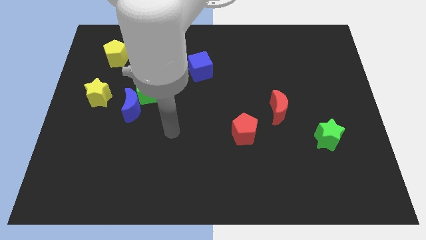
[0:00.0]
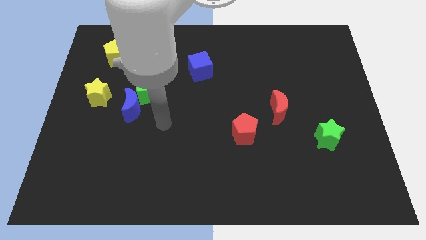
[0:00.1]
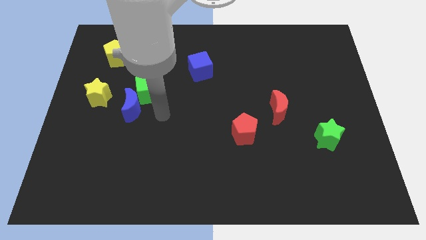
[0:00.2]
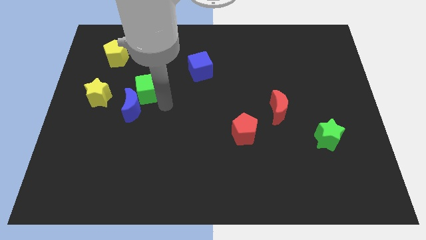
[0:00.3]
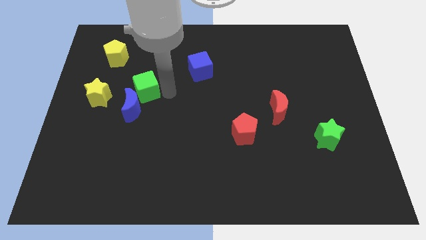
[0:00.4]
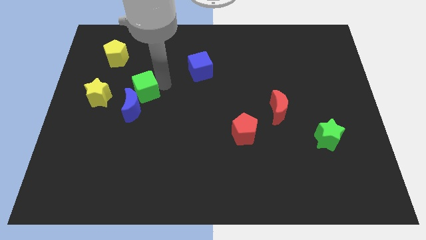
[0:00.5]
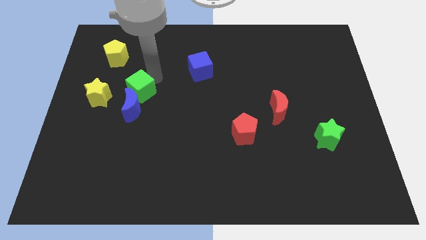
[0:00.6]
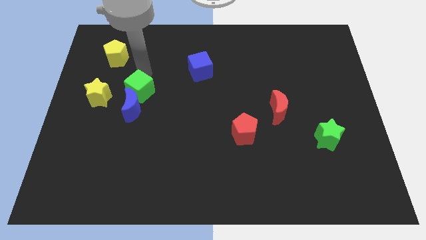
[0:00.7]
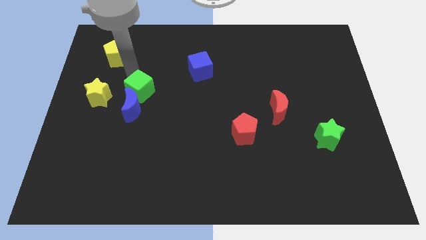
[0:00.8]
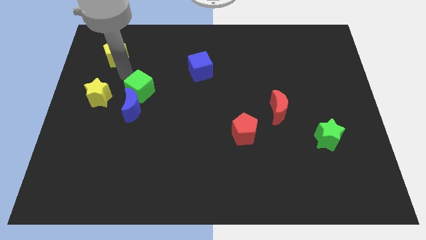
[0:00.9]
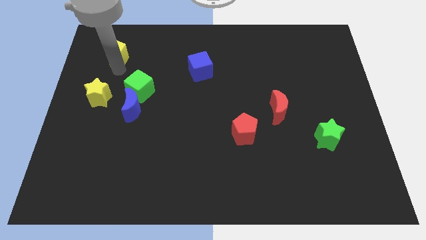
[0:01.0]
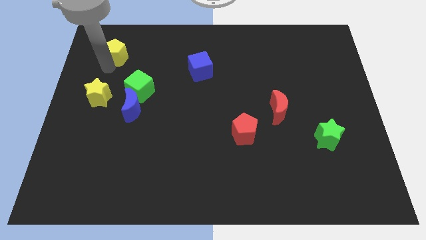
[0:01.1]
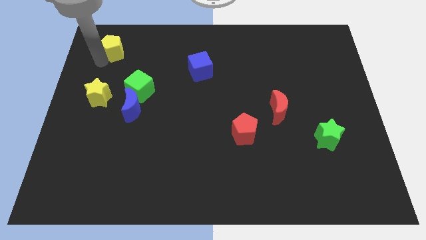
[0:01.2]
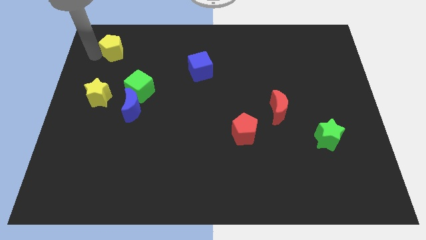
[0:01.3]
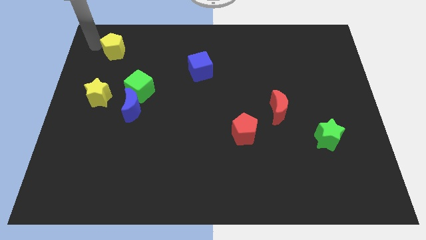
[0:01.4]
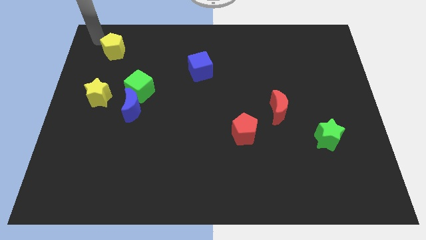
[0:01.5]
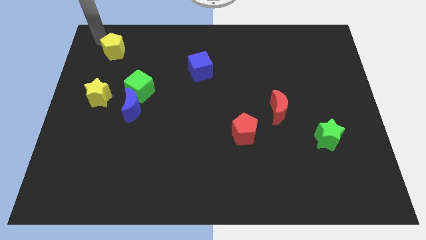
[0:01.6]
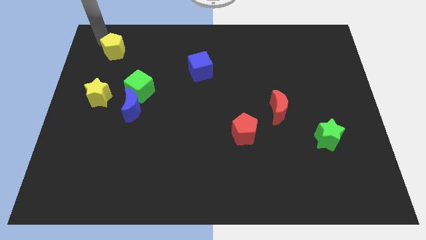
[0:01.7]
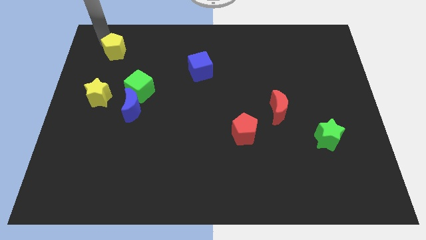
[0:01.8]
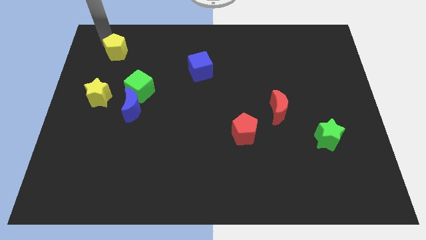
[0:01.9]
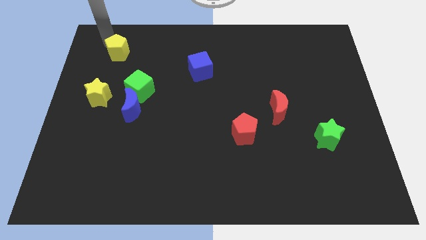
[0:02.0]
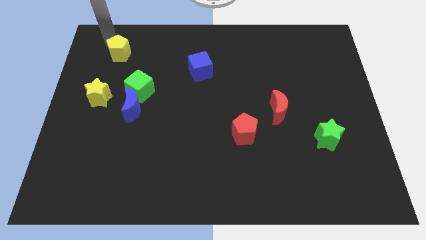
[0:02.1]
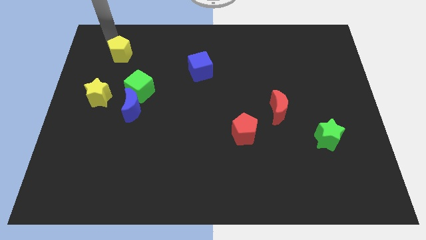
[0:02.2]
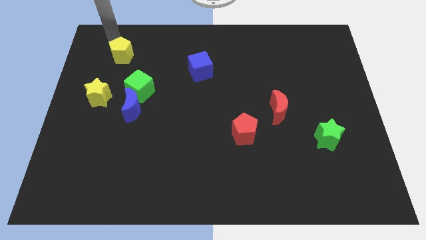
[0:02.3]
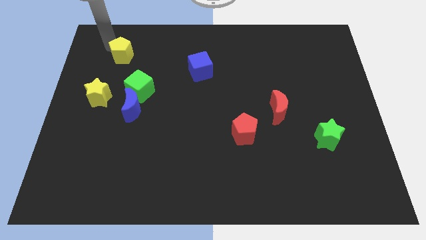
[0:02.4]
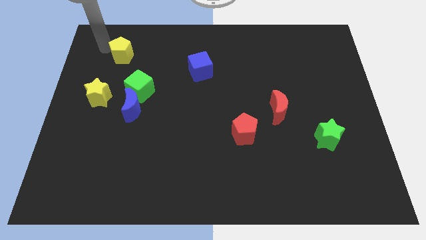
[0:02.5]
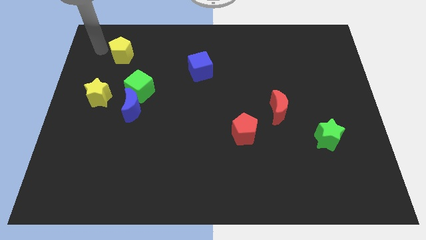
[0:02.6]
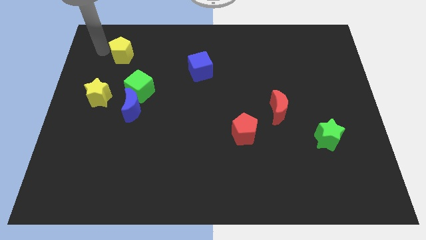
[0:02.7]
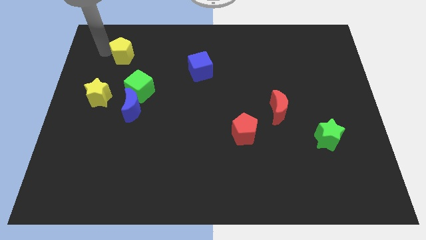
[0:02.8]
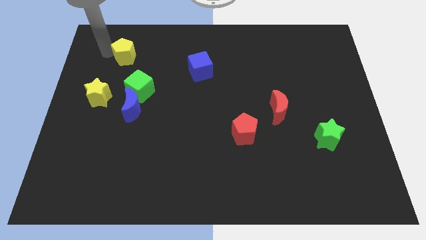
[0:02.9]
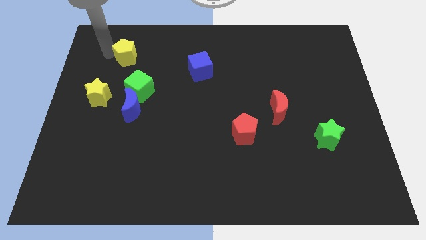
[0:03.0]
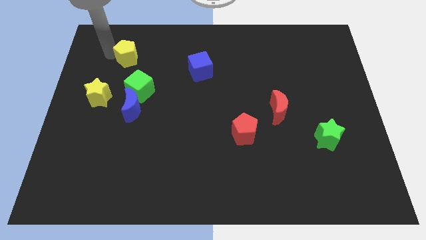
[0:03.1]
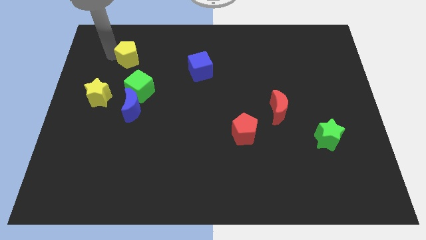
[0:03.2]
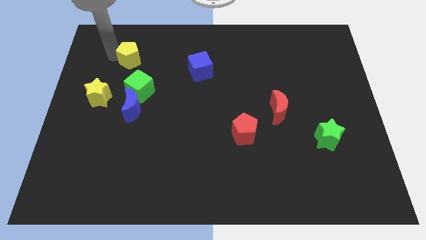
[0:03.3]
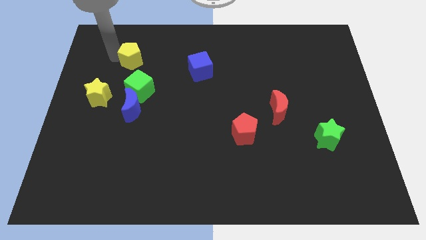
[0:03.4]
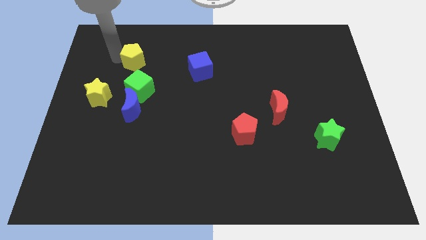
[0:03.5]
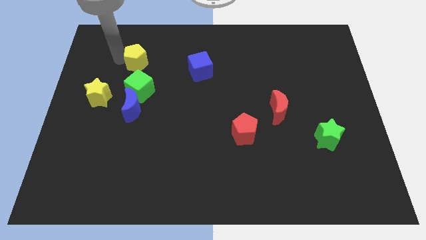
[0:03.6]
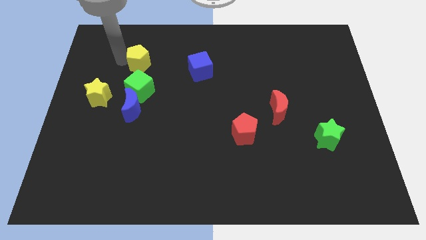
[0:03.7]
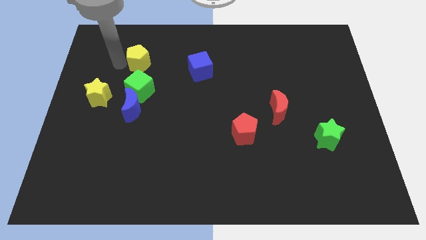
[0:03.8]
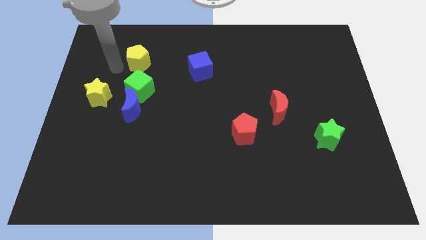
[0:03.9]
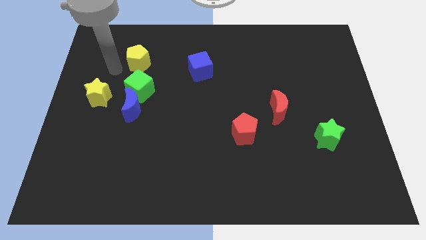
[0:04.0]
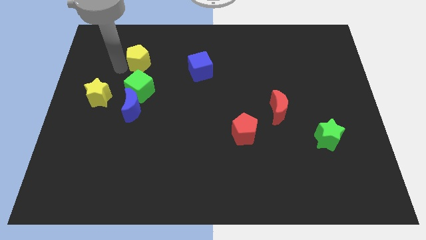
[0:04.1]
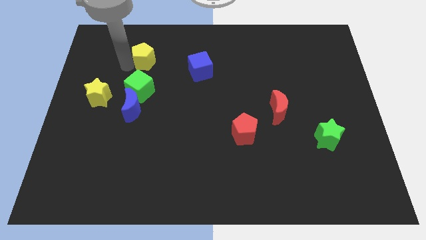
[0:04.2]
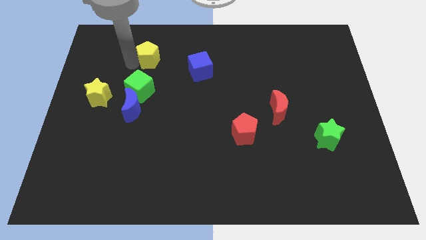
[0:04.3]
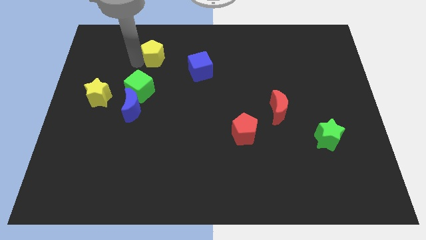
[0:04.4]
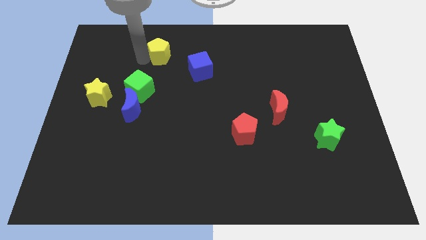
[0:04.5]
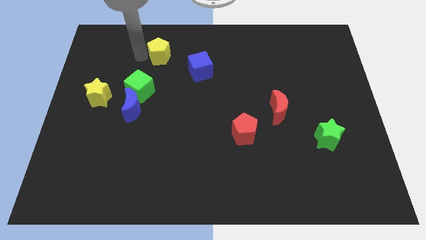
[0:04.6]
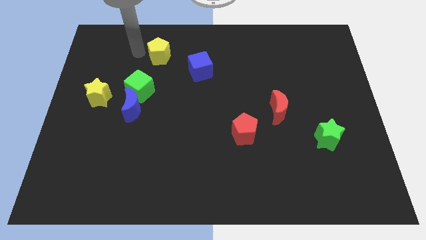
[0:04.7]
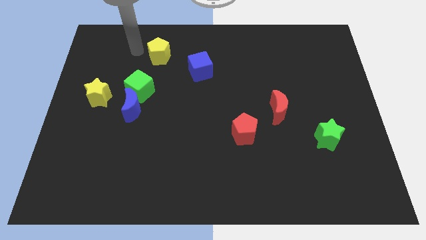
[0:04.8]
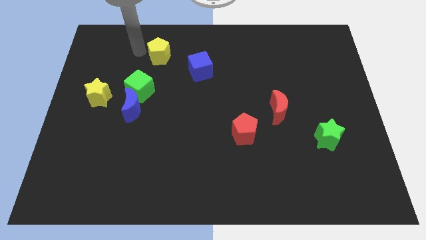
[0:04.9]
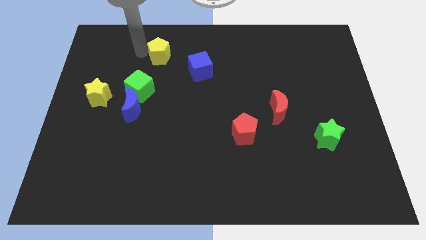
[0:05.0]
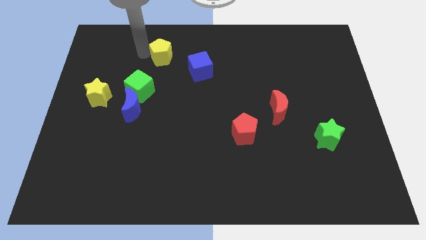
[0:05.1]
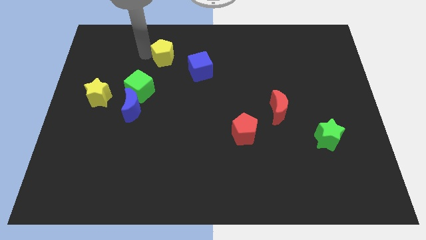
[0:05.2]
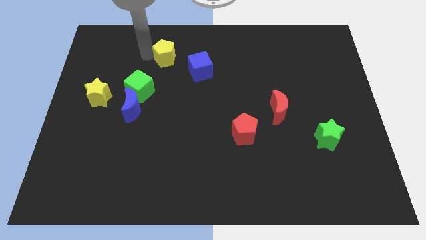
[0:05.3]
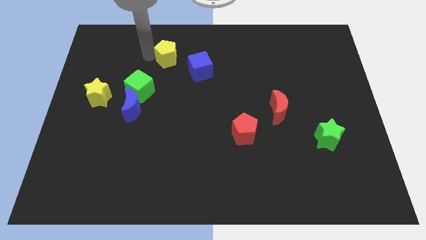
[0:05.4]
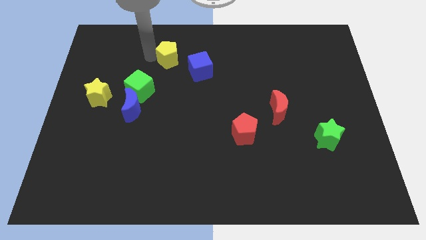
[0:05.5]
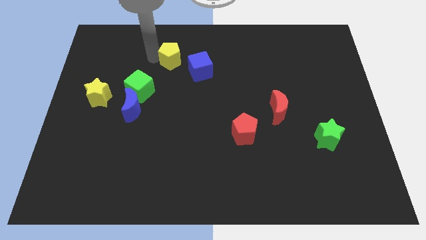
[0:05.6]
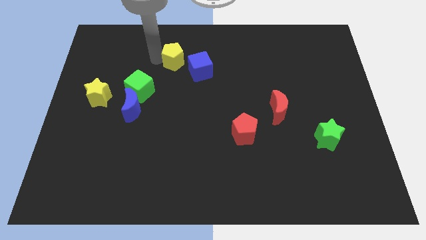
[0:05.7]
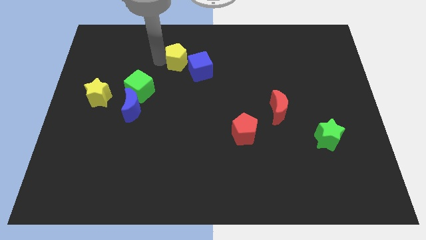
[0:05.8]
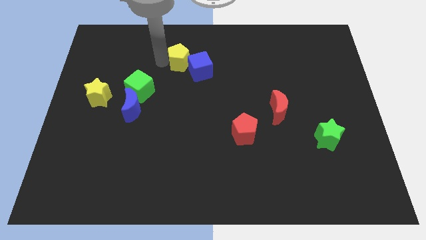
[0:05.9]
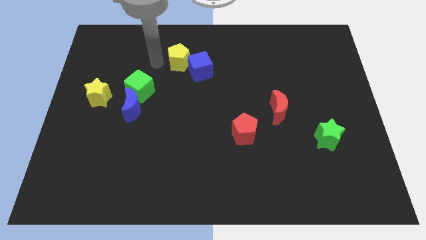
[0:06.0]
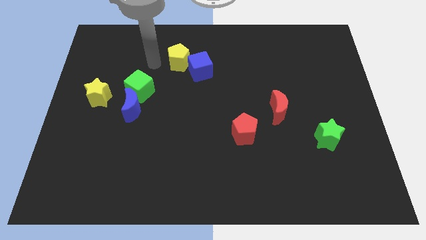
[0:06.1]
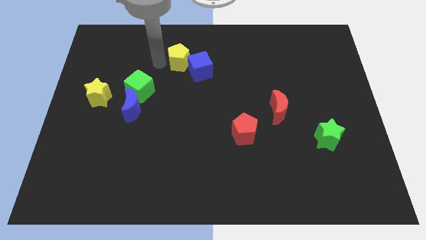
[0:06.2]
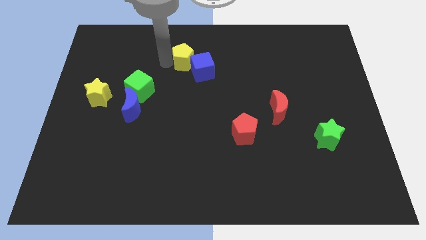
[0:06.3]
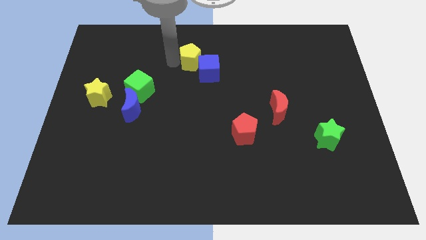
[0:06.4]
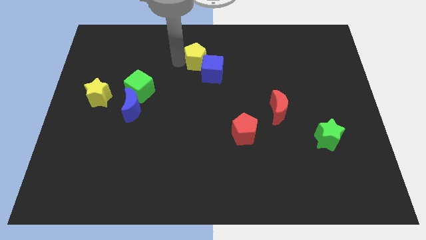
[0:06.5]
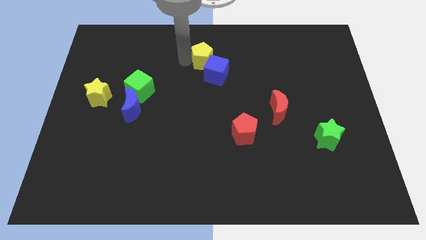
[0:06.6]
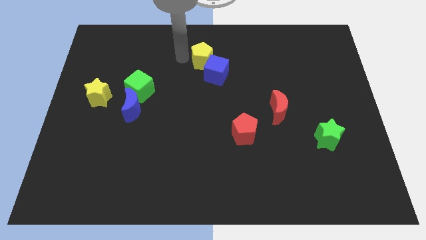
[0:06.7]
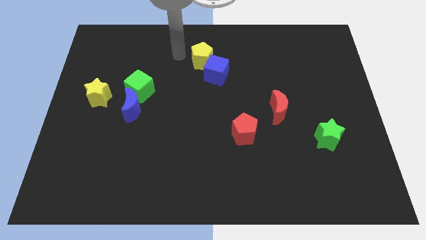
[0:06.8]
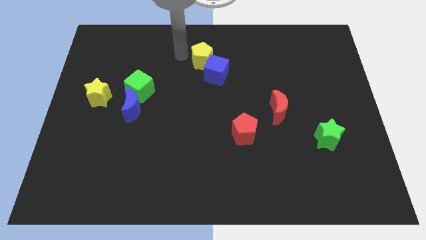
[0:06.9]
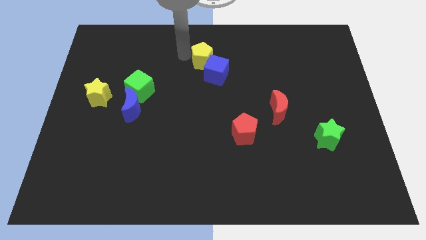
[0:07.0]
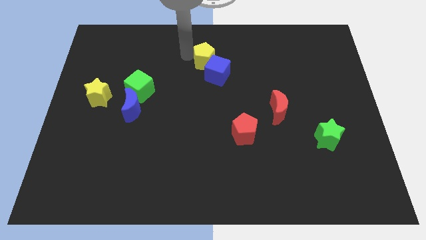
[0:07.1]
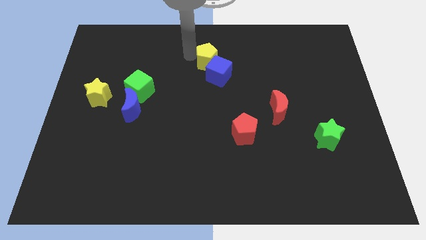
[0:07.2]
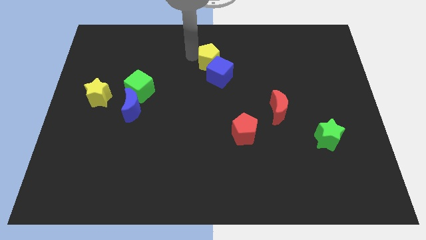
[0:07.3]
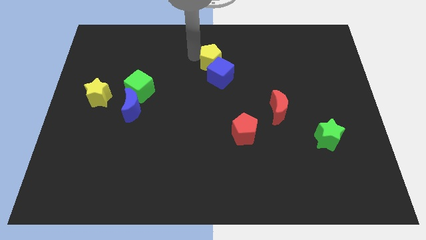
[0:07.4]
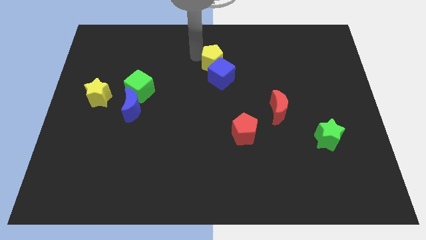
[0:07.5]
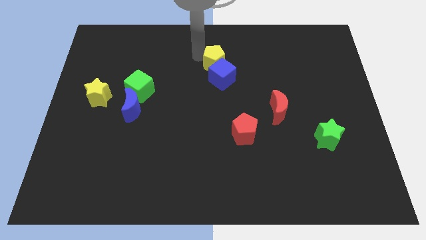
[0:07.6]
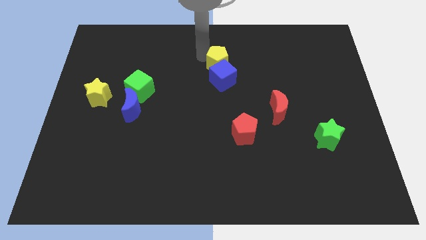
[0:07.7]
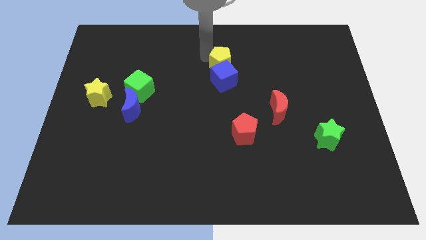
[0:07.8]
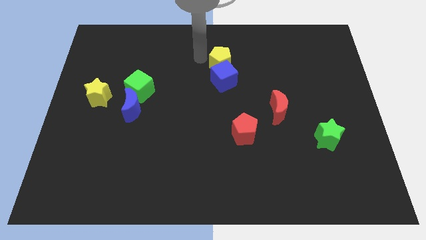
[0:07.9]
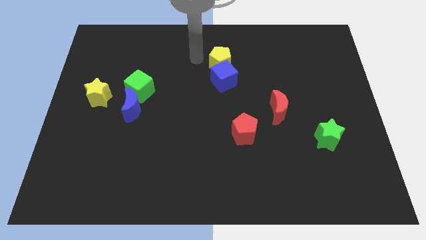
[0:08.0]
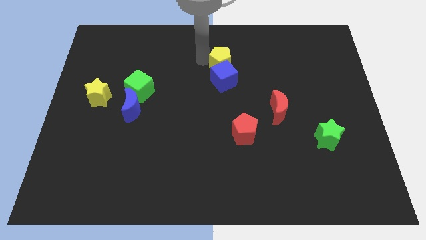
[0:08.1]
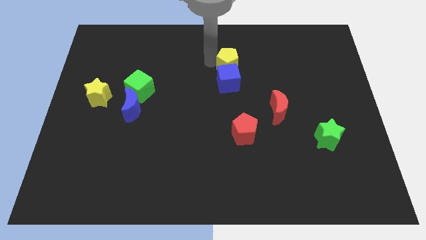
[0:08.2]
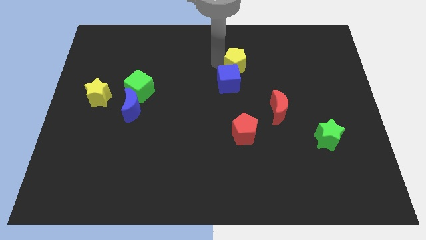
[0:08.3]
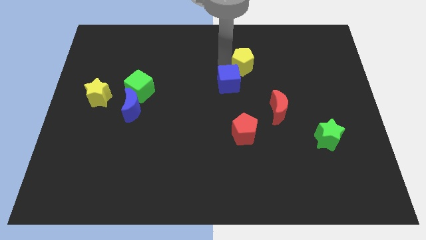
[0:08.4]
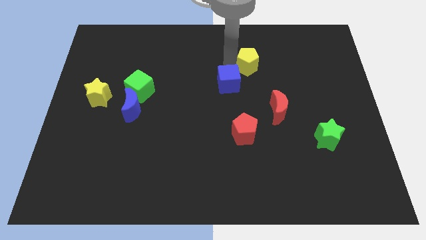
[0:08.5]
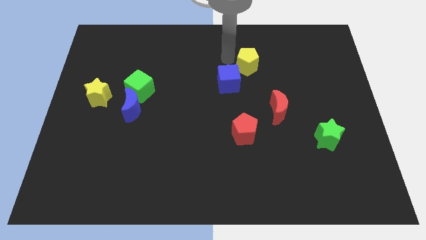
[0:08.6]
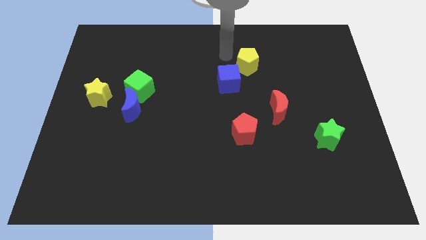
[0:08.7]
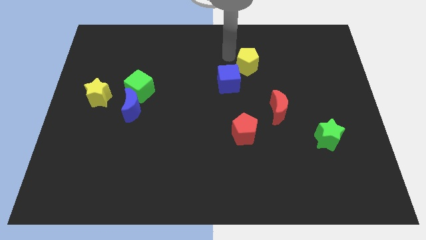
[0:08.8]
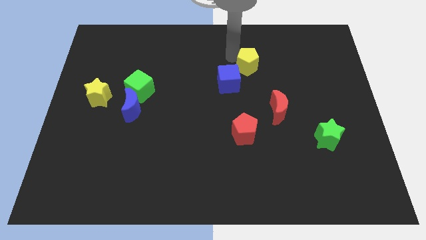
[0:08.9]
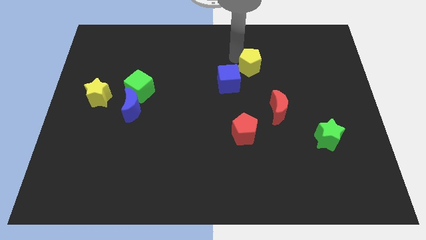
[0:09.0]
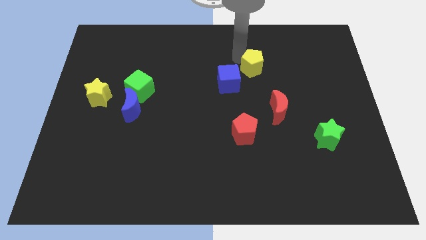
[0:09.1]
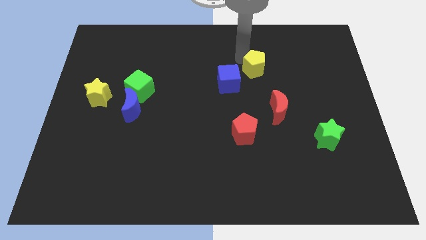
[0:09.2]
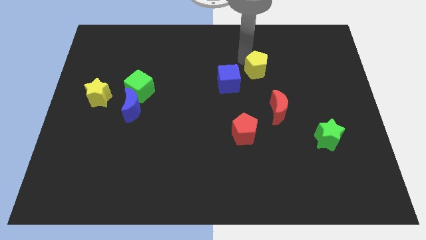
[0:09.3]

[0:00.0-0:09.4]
slide the yellow pentagon to the top of the red moon
